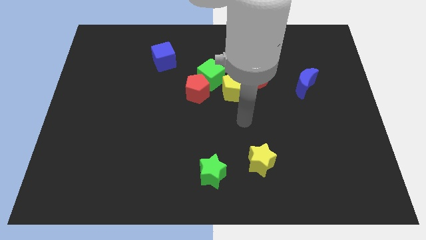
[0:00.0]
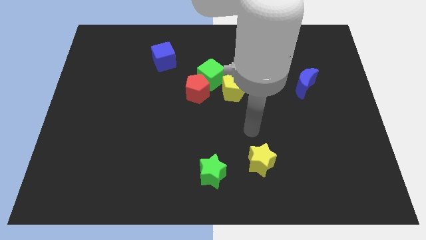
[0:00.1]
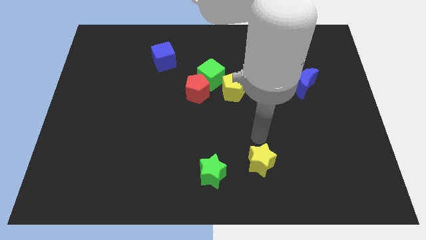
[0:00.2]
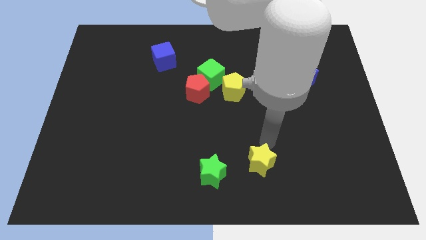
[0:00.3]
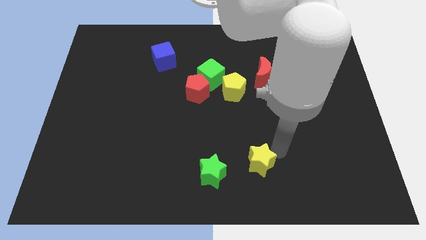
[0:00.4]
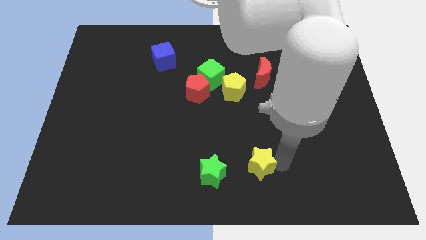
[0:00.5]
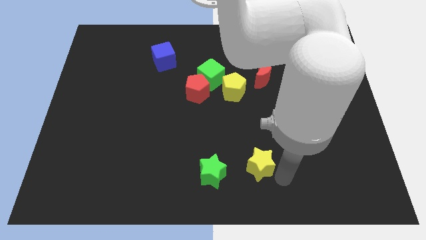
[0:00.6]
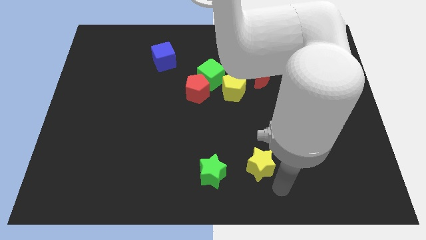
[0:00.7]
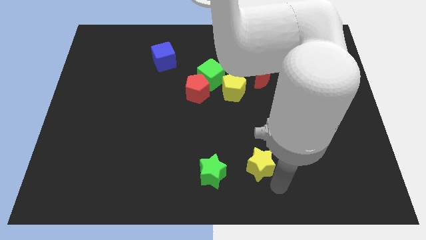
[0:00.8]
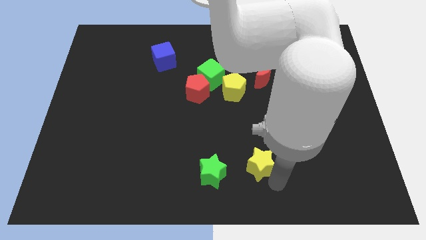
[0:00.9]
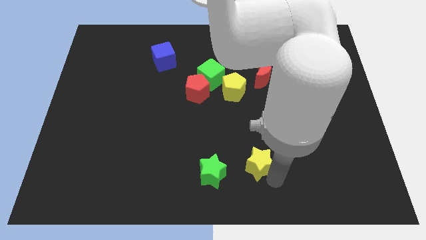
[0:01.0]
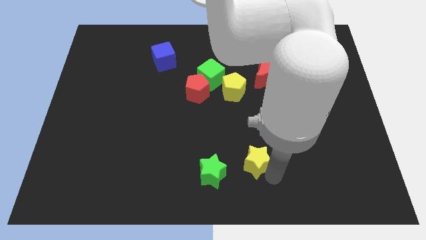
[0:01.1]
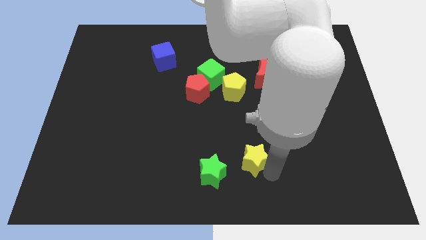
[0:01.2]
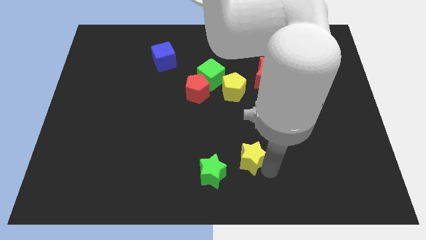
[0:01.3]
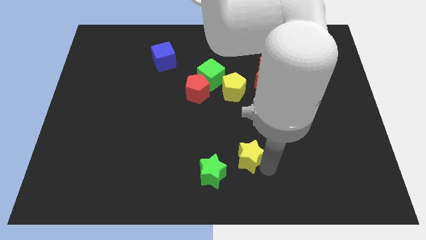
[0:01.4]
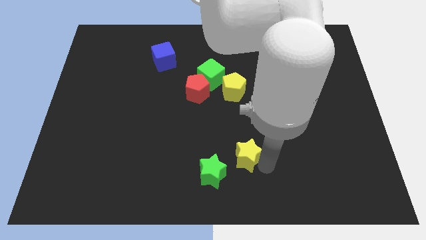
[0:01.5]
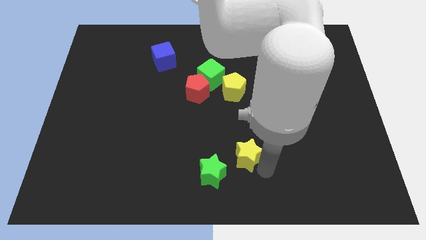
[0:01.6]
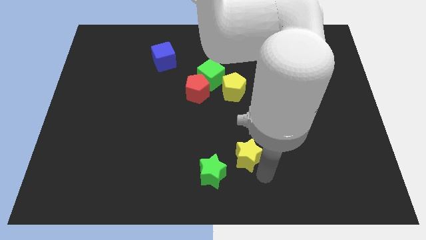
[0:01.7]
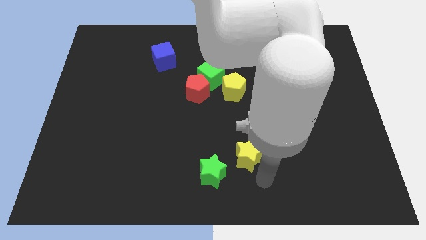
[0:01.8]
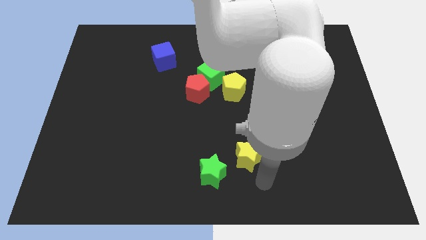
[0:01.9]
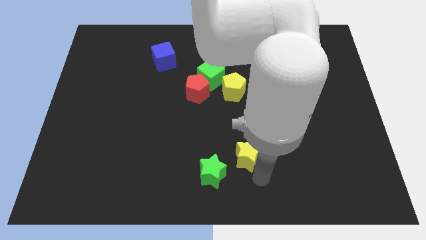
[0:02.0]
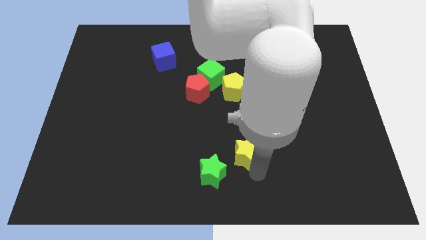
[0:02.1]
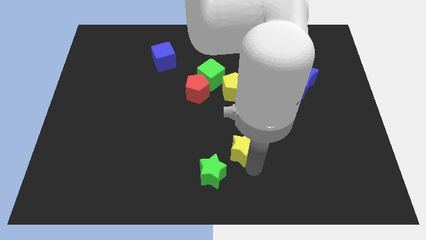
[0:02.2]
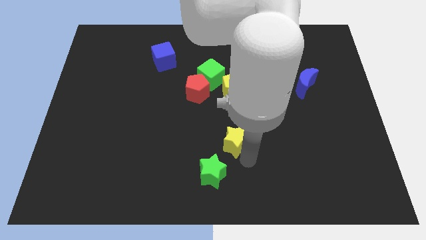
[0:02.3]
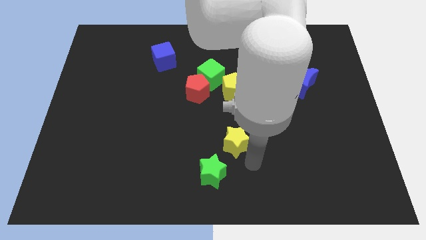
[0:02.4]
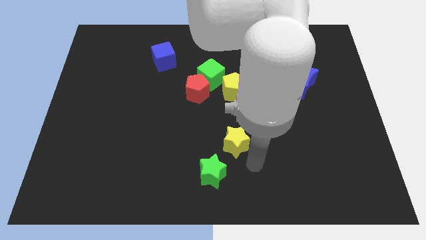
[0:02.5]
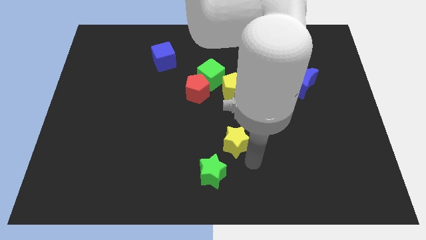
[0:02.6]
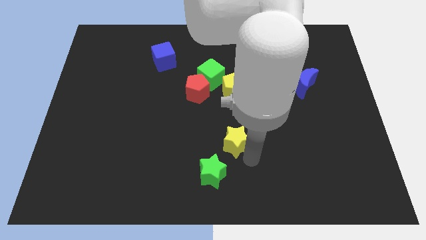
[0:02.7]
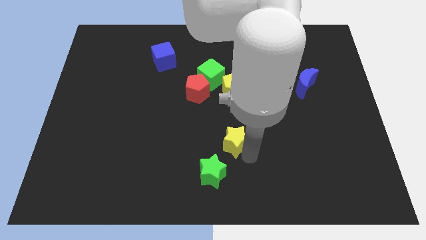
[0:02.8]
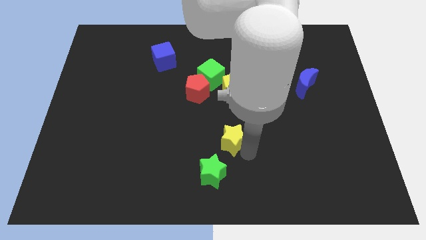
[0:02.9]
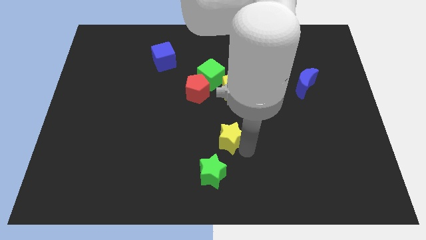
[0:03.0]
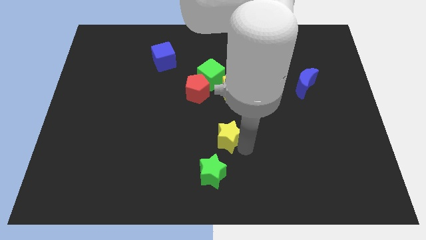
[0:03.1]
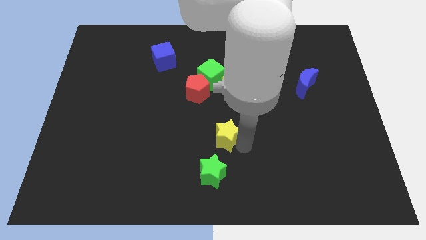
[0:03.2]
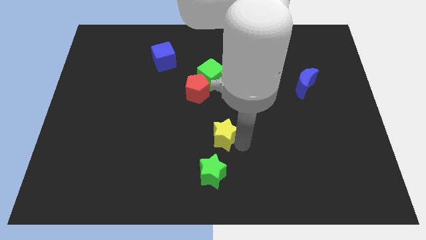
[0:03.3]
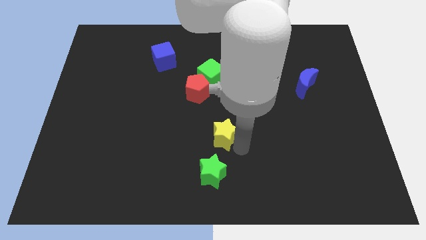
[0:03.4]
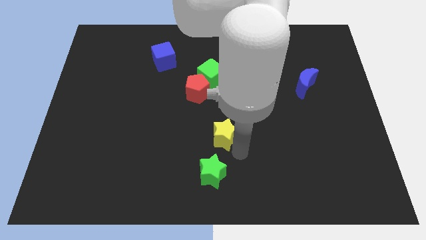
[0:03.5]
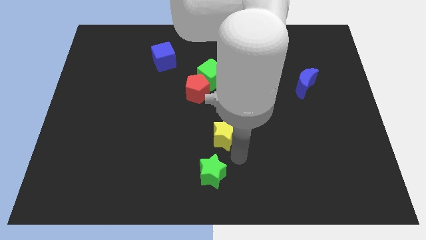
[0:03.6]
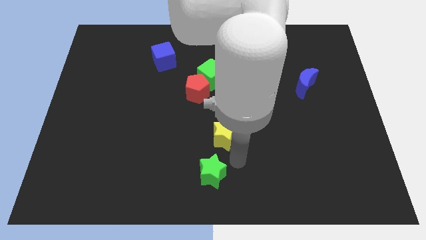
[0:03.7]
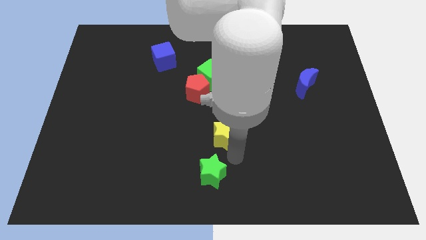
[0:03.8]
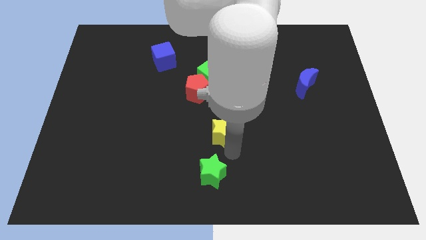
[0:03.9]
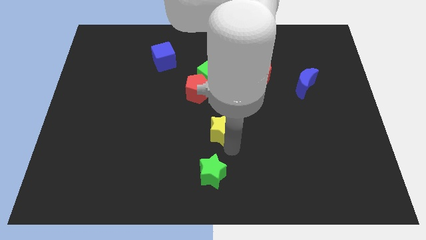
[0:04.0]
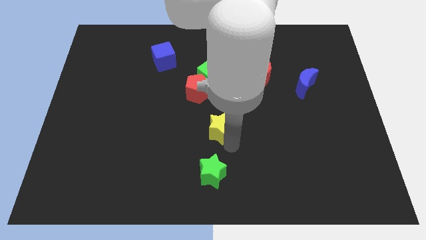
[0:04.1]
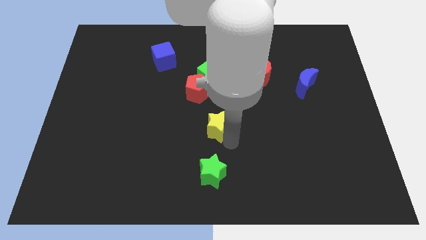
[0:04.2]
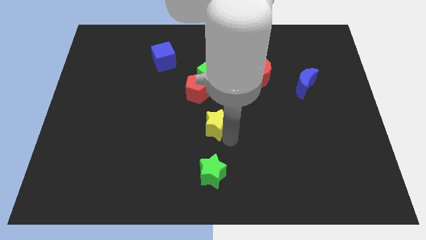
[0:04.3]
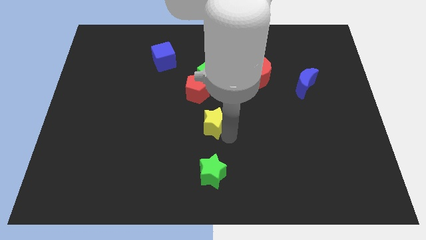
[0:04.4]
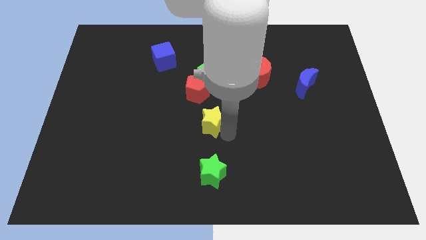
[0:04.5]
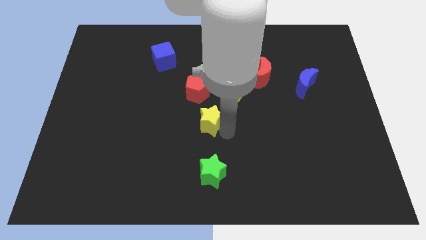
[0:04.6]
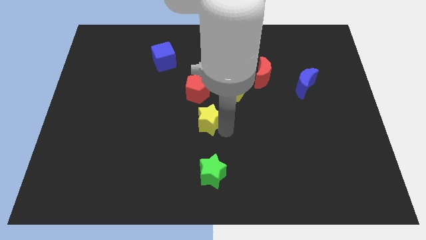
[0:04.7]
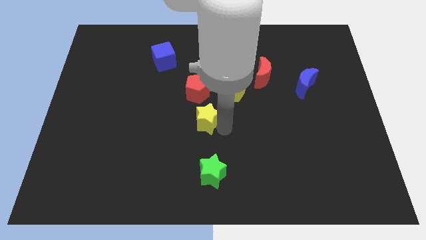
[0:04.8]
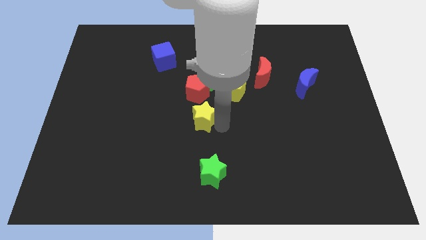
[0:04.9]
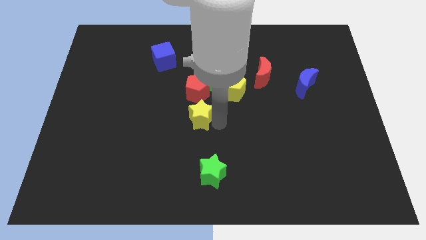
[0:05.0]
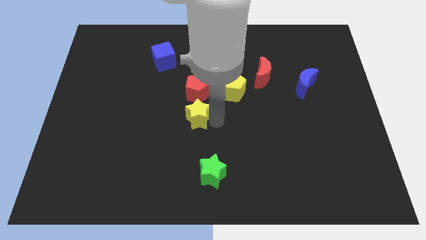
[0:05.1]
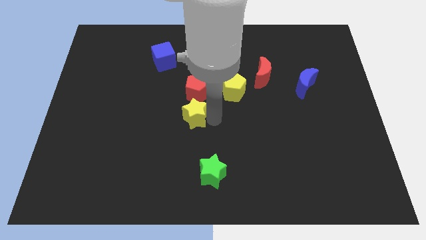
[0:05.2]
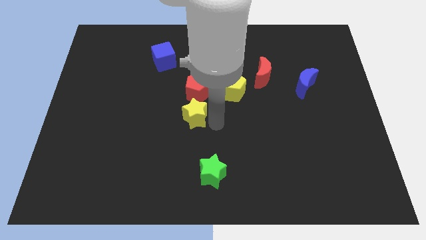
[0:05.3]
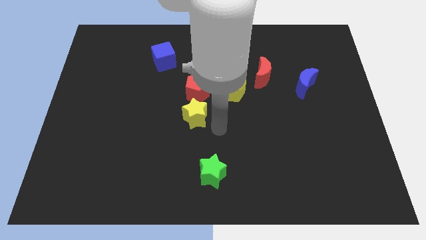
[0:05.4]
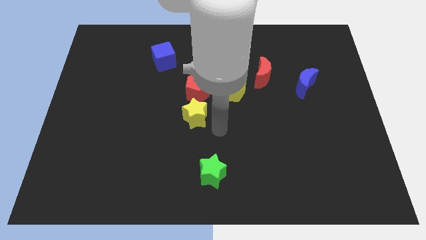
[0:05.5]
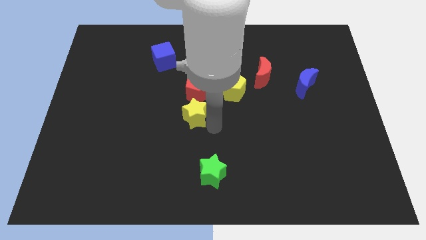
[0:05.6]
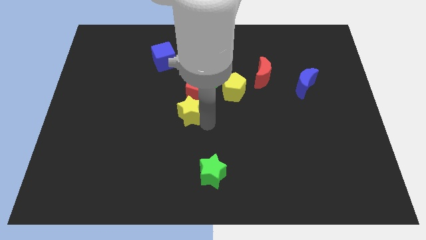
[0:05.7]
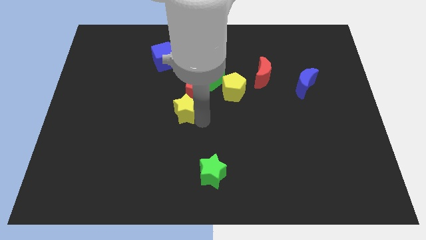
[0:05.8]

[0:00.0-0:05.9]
slide the yellow star diagonally up and to the left

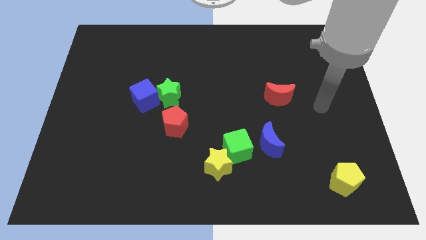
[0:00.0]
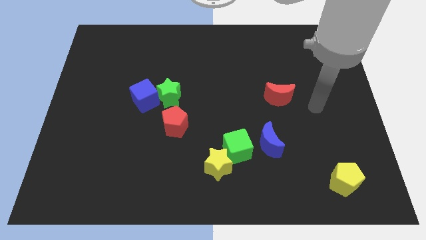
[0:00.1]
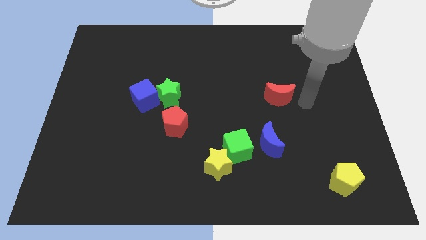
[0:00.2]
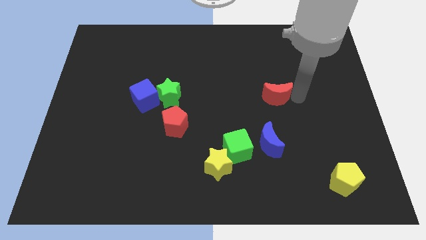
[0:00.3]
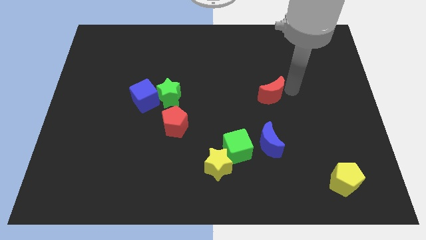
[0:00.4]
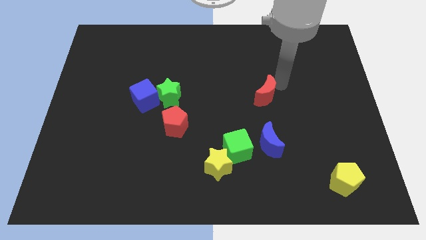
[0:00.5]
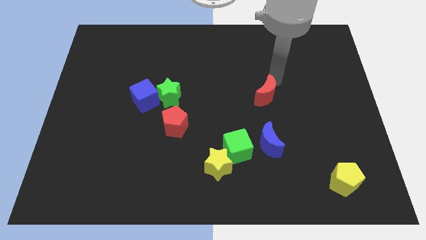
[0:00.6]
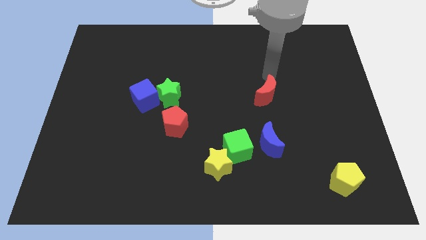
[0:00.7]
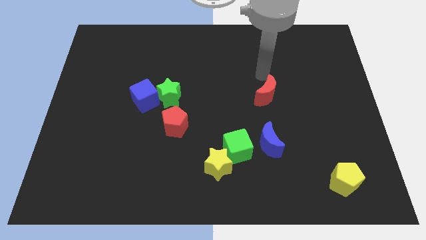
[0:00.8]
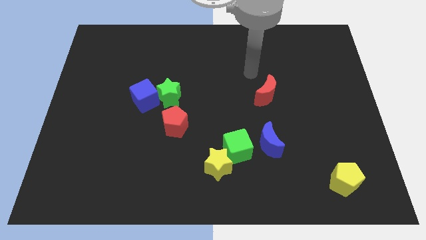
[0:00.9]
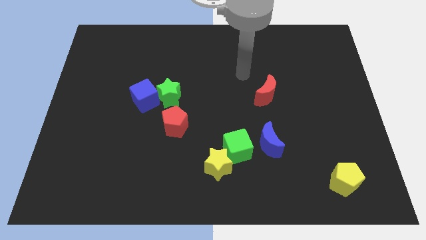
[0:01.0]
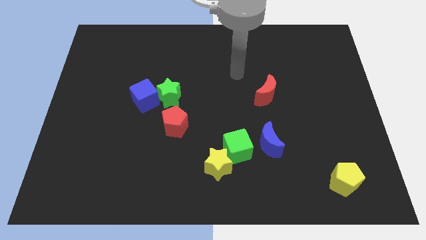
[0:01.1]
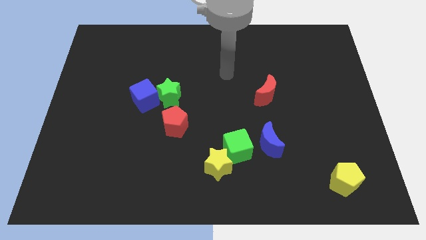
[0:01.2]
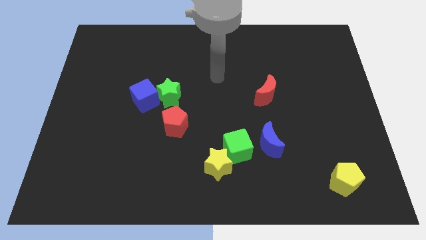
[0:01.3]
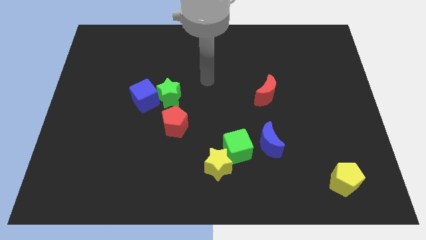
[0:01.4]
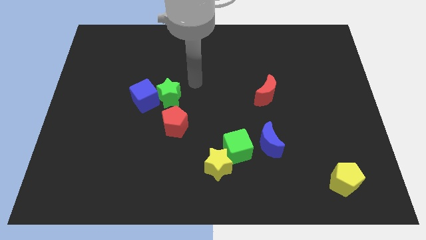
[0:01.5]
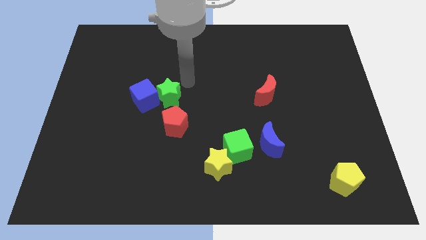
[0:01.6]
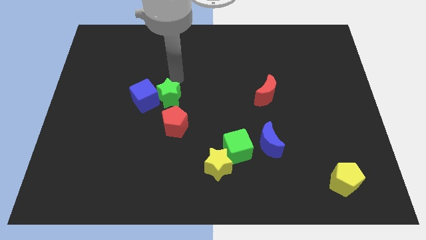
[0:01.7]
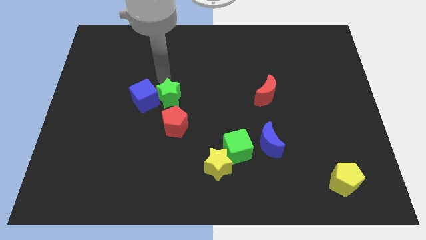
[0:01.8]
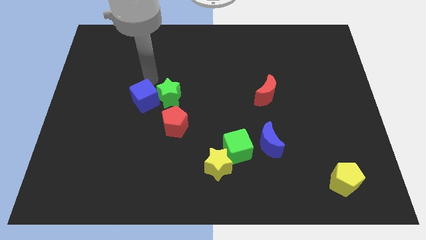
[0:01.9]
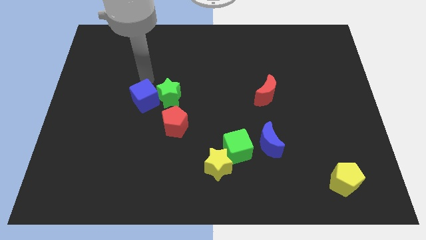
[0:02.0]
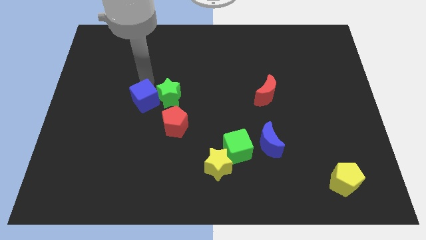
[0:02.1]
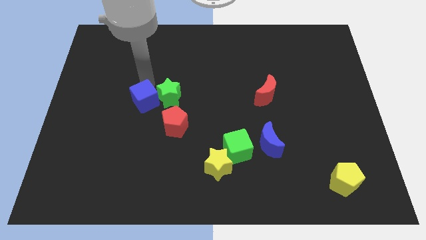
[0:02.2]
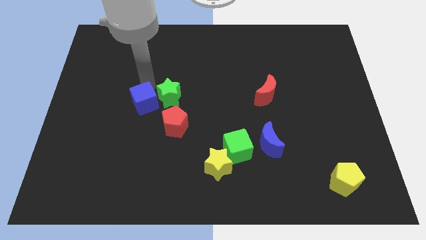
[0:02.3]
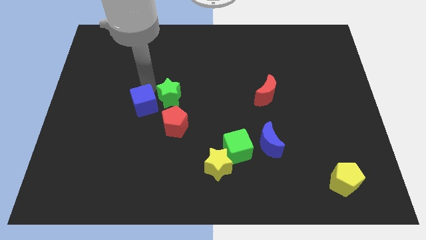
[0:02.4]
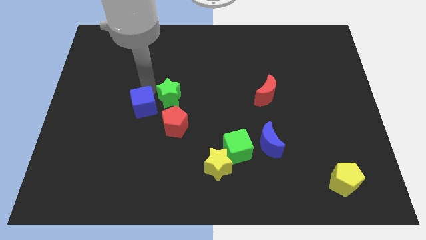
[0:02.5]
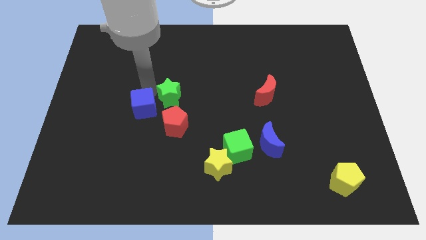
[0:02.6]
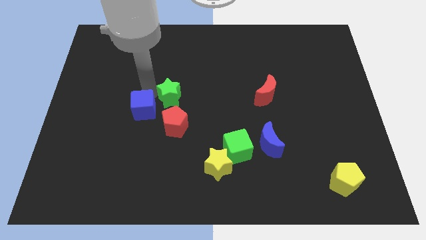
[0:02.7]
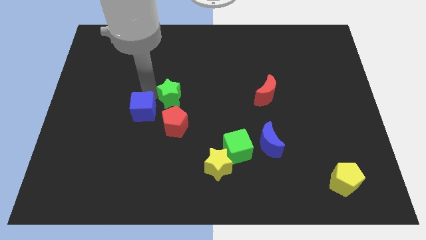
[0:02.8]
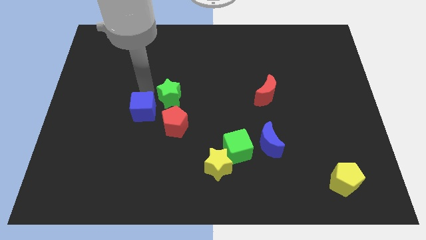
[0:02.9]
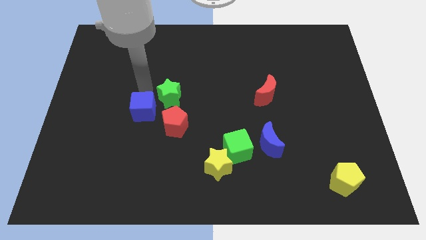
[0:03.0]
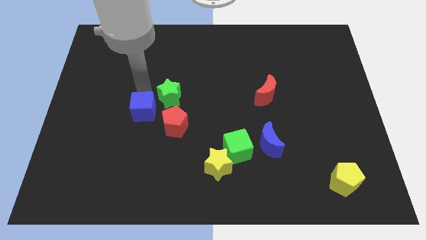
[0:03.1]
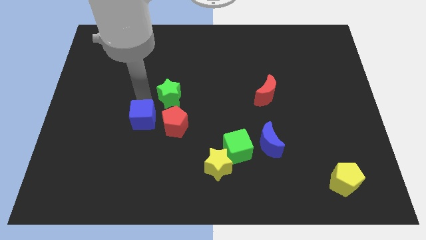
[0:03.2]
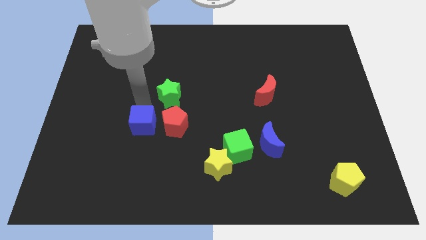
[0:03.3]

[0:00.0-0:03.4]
slightly push the blue cube downwards
